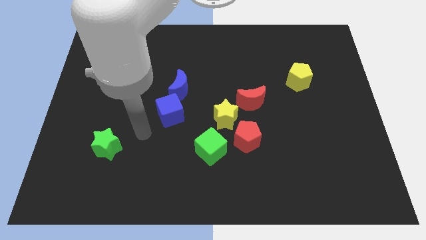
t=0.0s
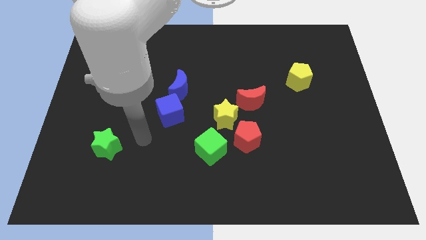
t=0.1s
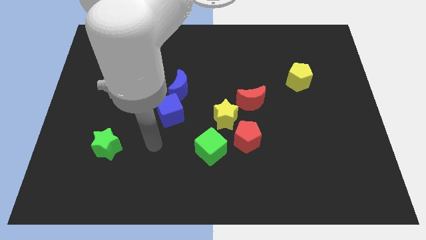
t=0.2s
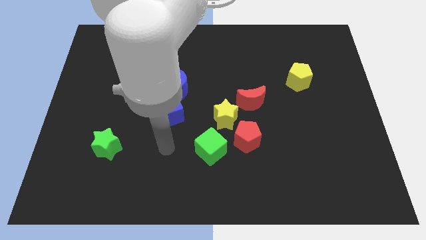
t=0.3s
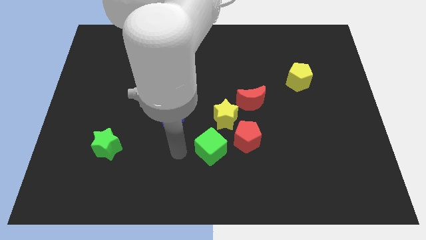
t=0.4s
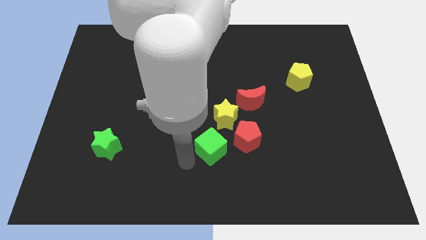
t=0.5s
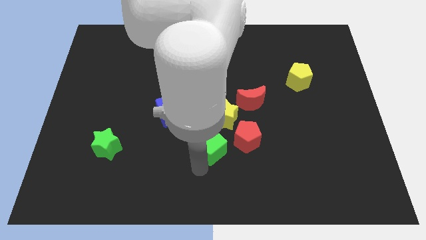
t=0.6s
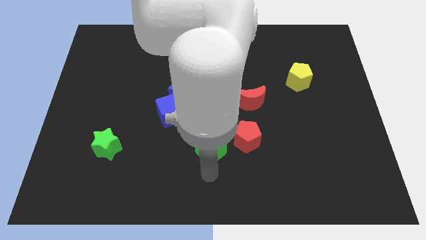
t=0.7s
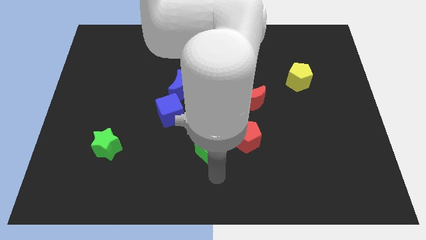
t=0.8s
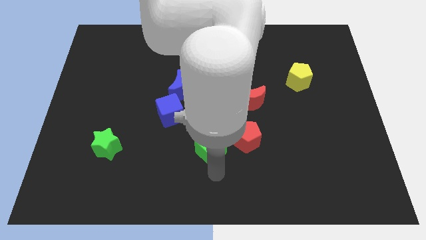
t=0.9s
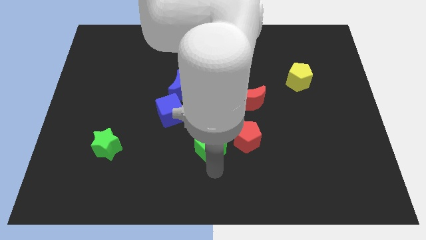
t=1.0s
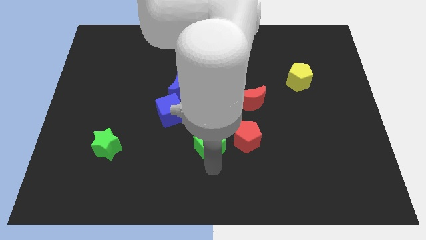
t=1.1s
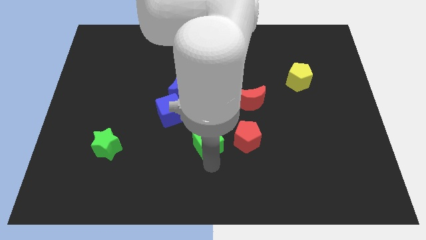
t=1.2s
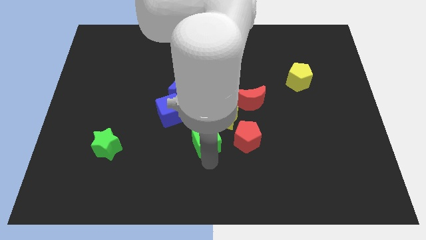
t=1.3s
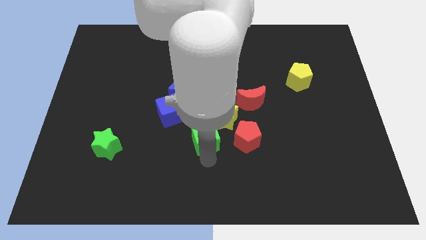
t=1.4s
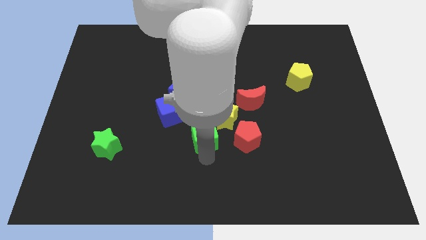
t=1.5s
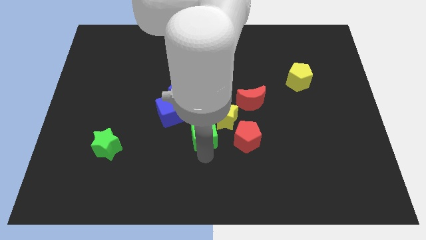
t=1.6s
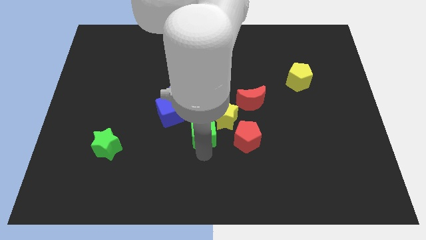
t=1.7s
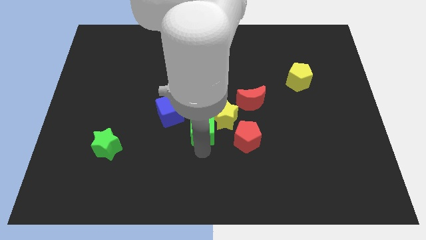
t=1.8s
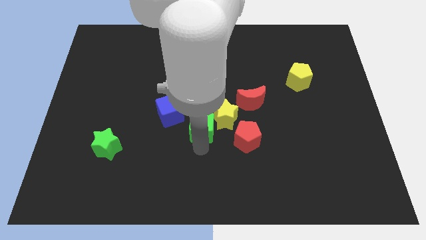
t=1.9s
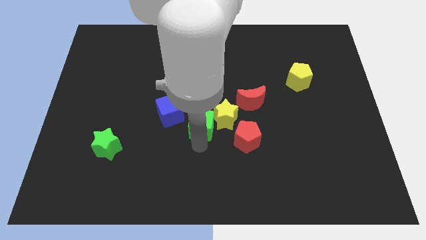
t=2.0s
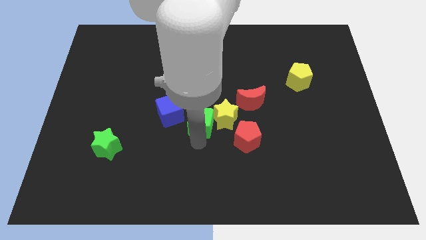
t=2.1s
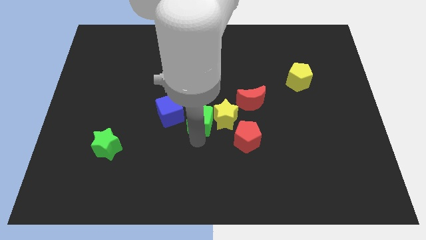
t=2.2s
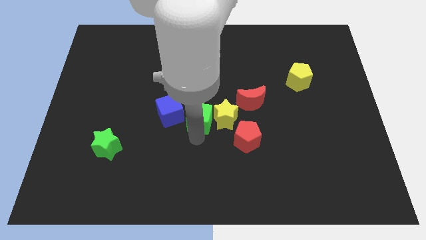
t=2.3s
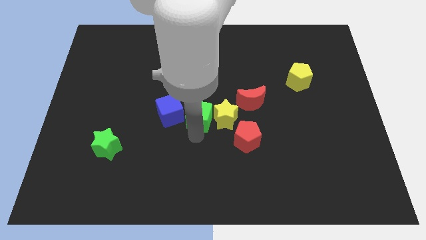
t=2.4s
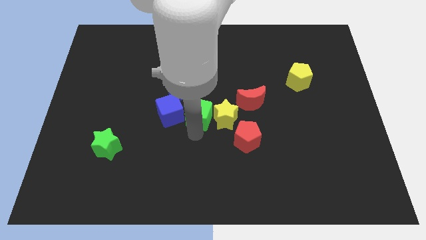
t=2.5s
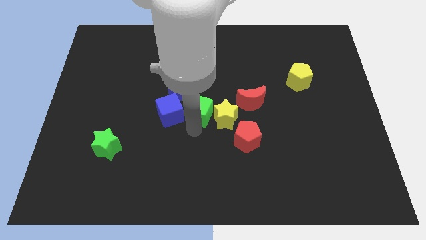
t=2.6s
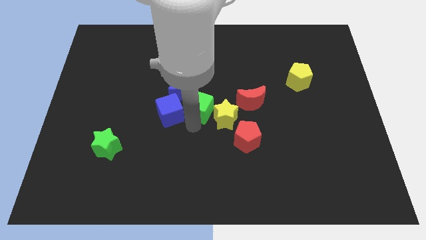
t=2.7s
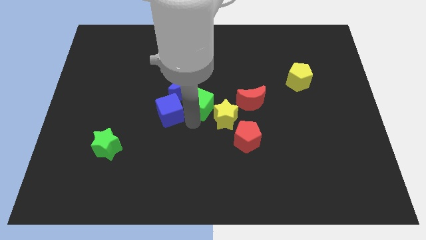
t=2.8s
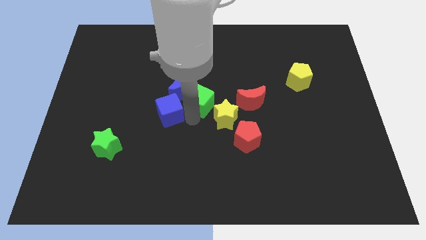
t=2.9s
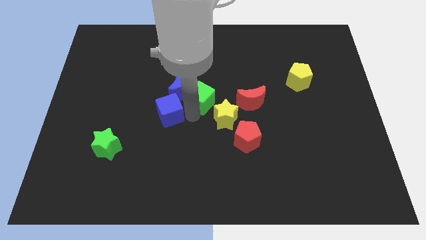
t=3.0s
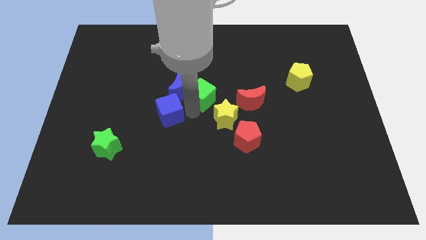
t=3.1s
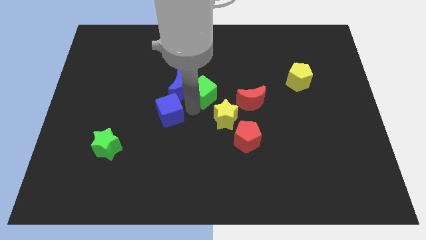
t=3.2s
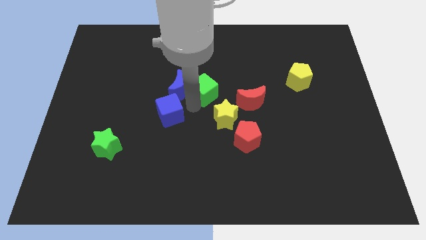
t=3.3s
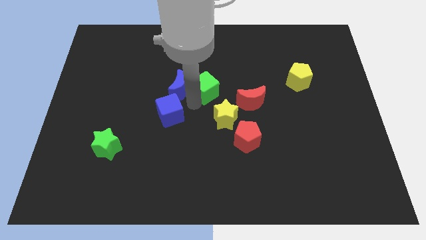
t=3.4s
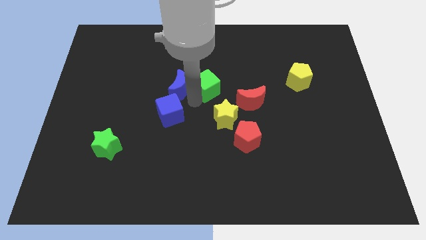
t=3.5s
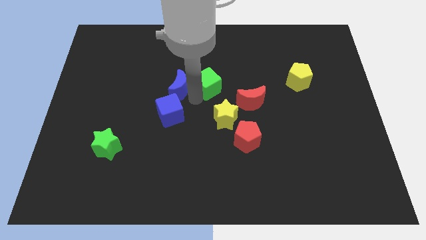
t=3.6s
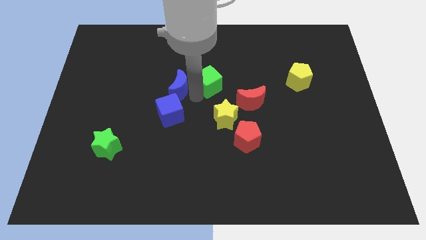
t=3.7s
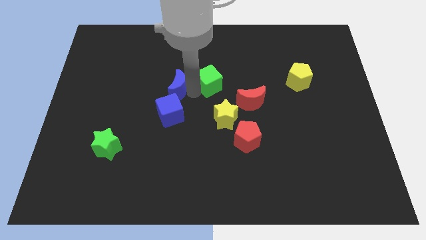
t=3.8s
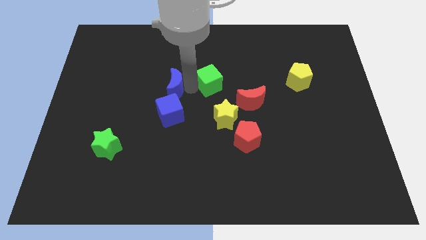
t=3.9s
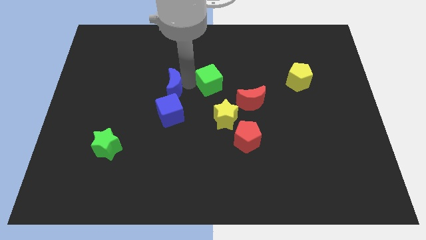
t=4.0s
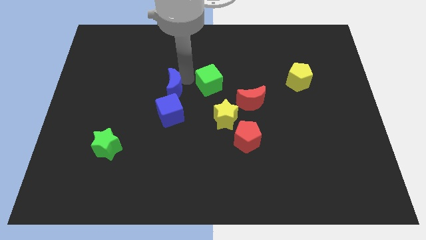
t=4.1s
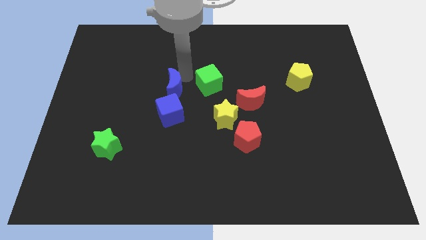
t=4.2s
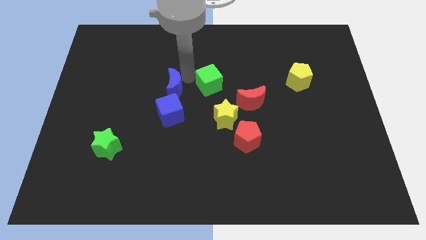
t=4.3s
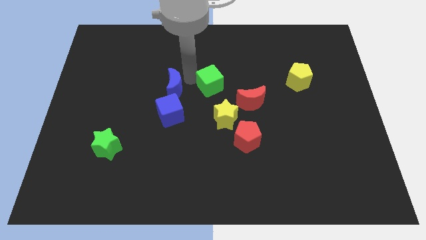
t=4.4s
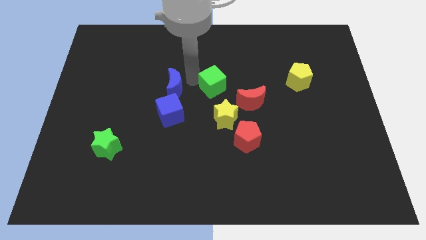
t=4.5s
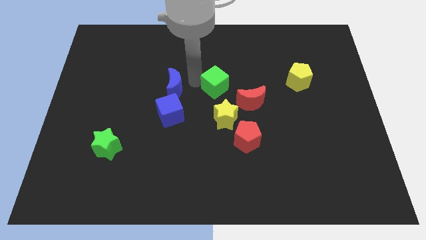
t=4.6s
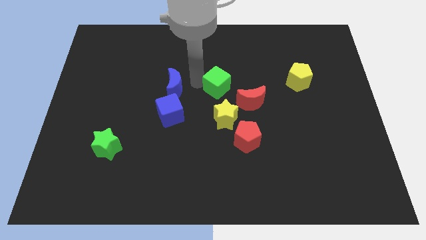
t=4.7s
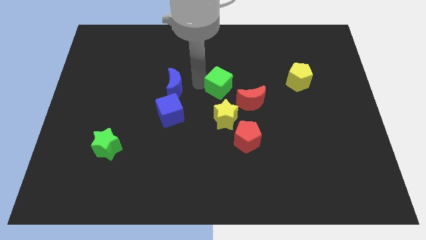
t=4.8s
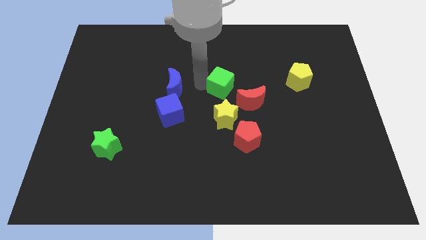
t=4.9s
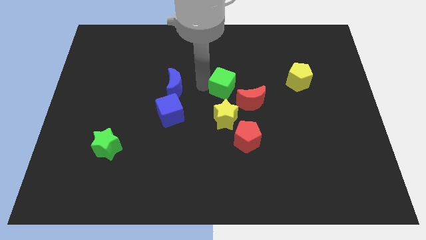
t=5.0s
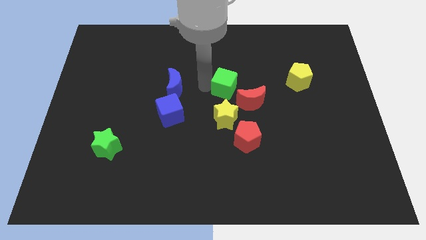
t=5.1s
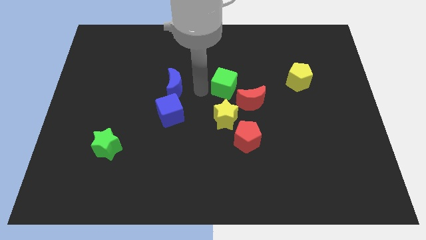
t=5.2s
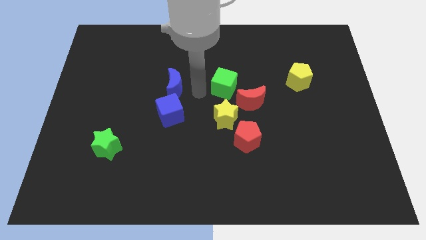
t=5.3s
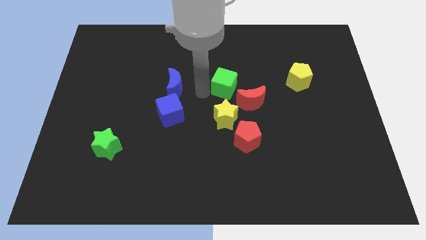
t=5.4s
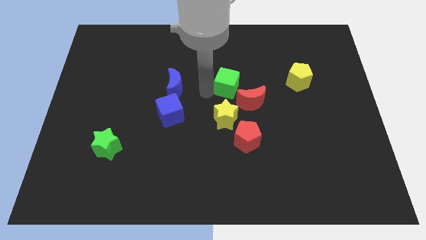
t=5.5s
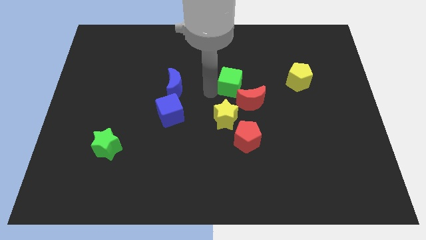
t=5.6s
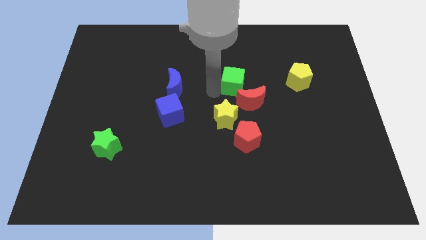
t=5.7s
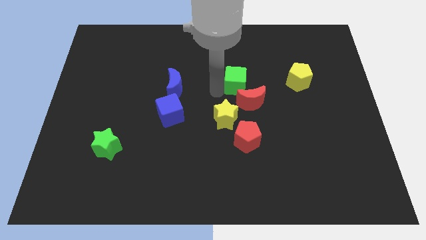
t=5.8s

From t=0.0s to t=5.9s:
push the green cube just left of the yellow pentagon
